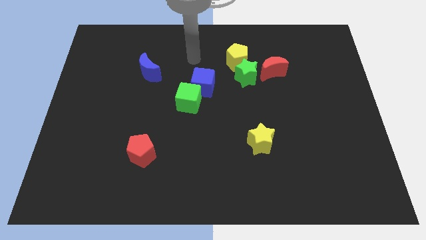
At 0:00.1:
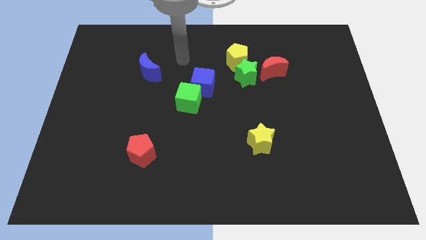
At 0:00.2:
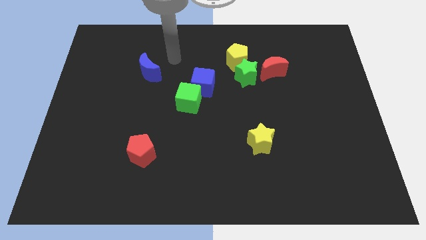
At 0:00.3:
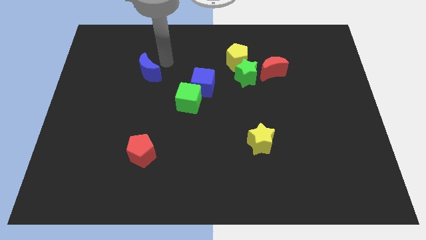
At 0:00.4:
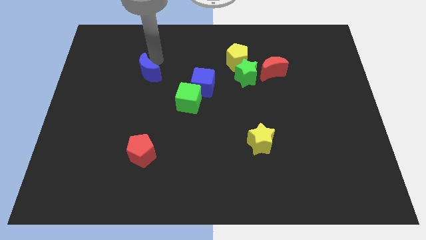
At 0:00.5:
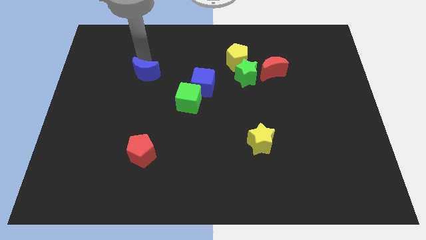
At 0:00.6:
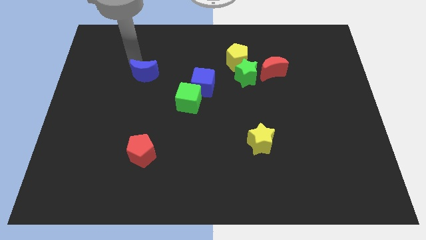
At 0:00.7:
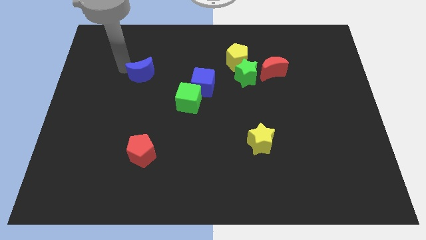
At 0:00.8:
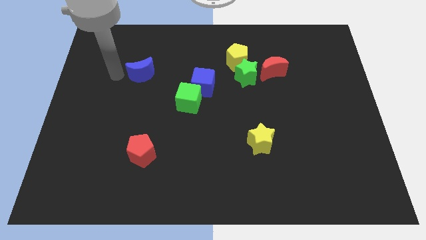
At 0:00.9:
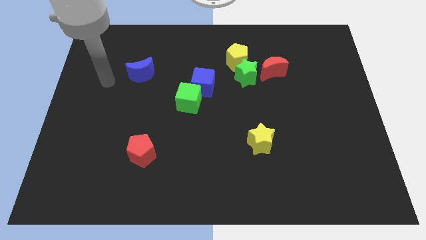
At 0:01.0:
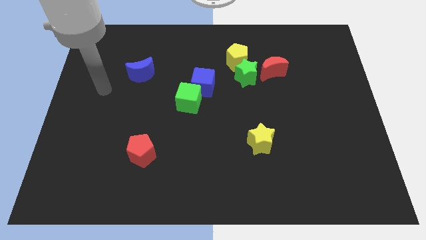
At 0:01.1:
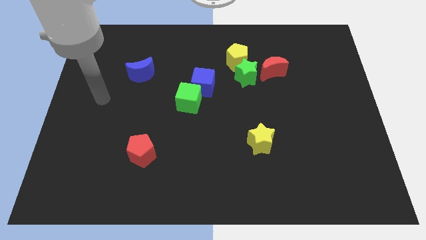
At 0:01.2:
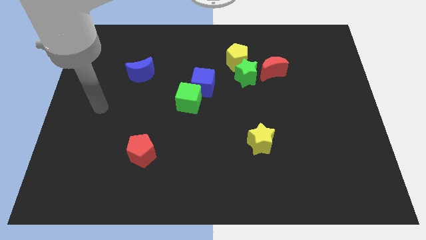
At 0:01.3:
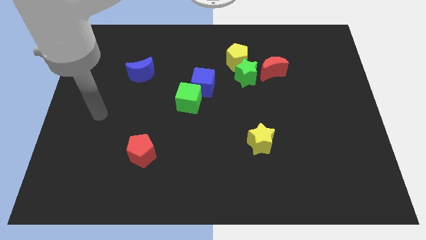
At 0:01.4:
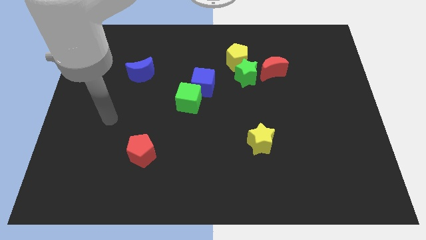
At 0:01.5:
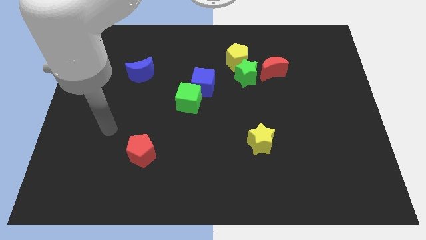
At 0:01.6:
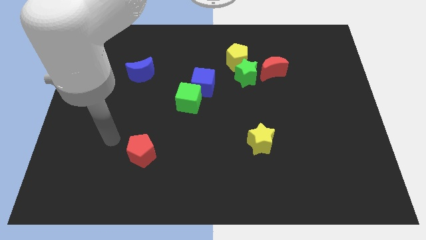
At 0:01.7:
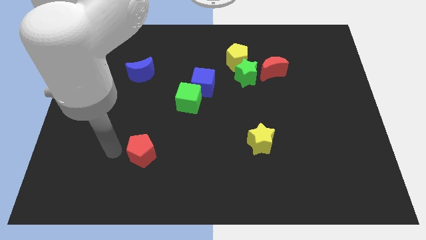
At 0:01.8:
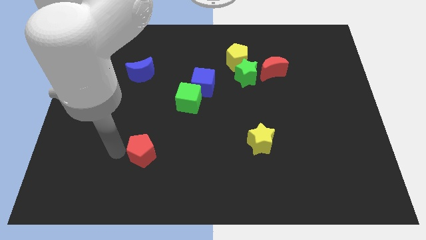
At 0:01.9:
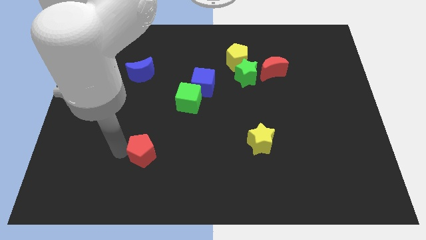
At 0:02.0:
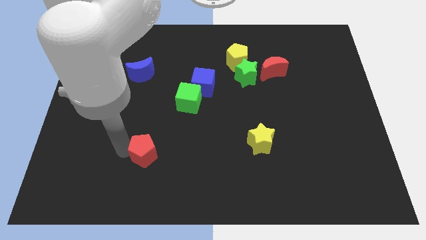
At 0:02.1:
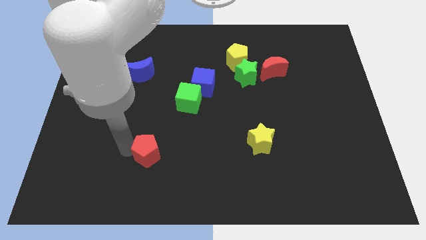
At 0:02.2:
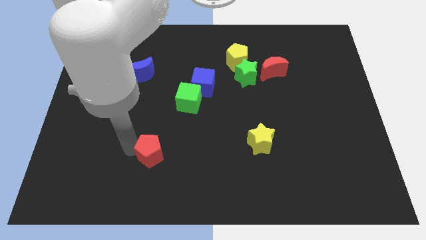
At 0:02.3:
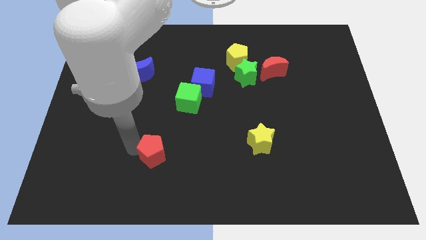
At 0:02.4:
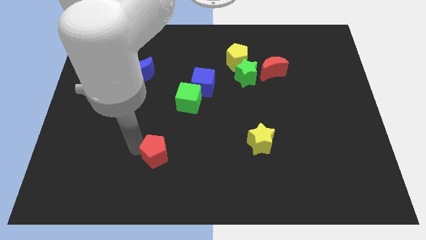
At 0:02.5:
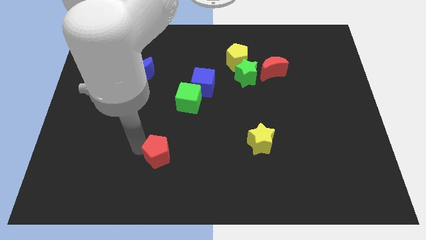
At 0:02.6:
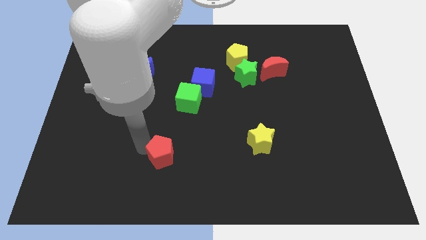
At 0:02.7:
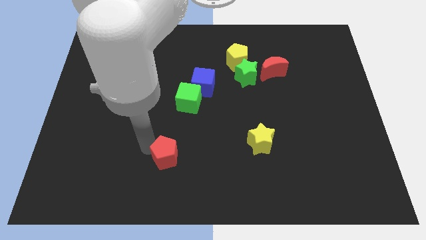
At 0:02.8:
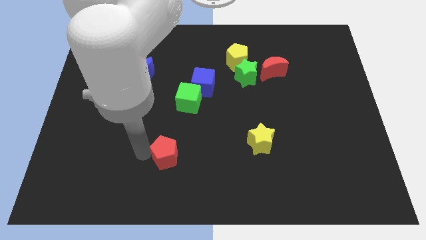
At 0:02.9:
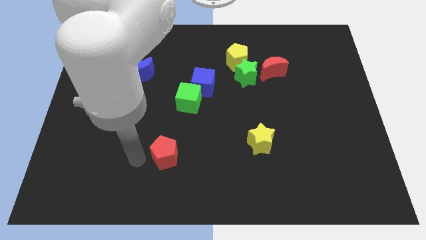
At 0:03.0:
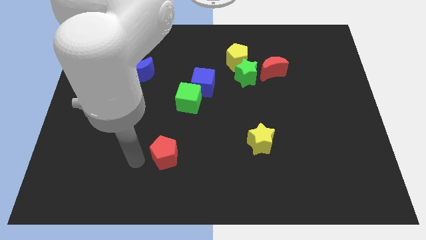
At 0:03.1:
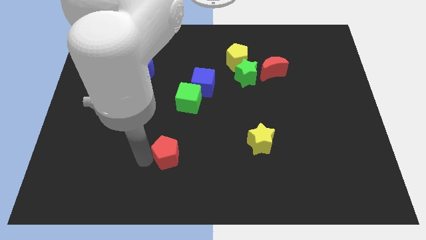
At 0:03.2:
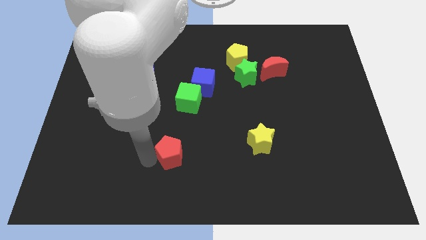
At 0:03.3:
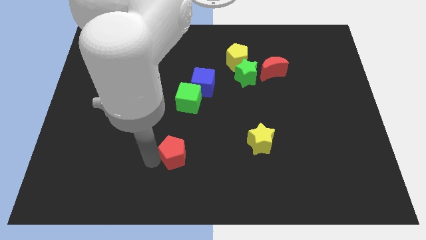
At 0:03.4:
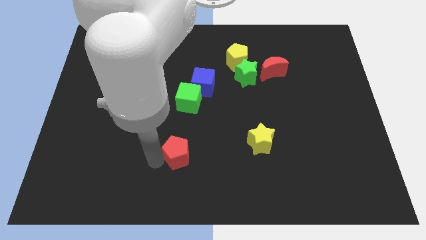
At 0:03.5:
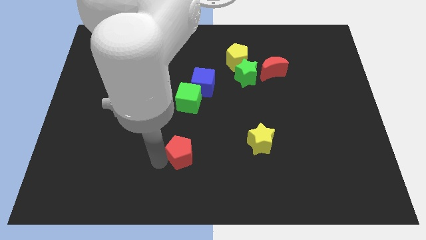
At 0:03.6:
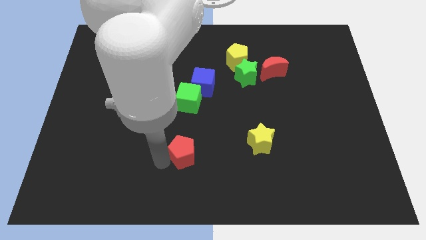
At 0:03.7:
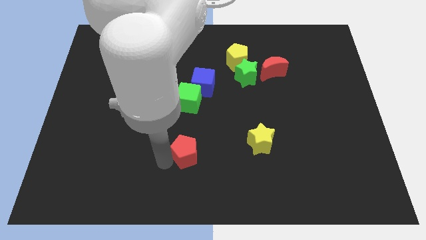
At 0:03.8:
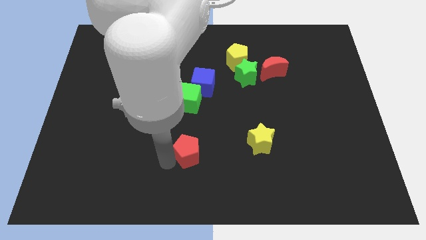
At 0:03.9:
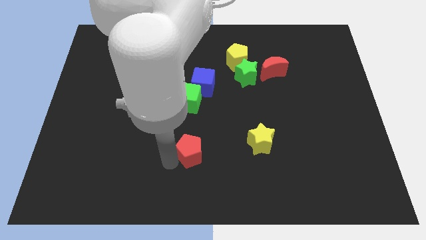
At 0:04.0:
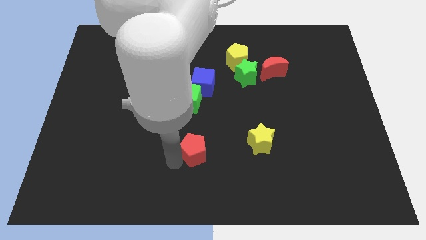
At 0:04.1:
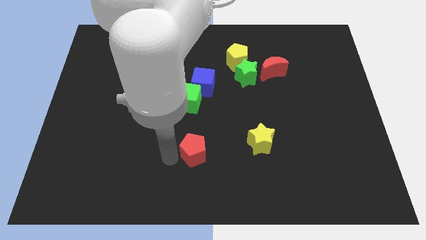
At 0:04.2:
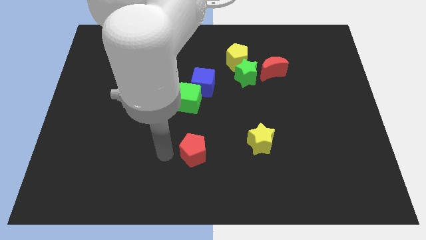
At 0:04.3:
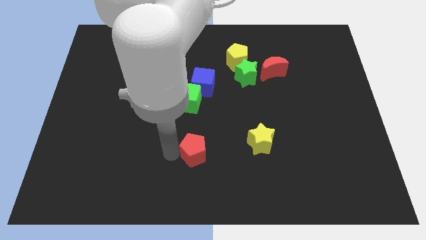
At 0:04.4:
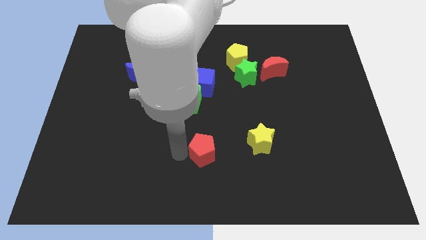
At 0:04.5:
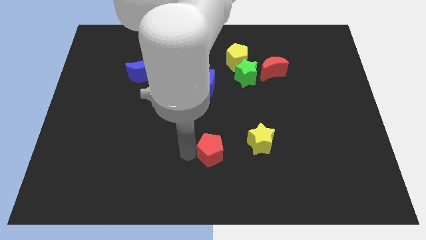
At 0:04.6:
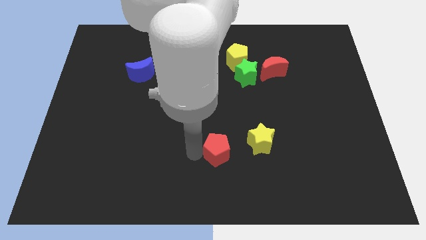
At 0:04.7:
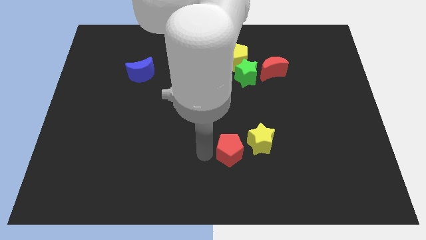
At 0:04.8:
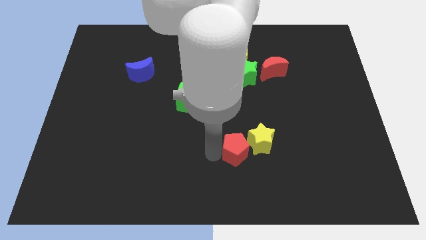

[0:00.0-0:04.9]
put the red pentagon to the yellow star

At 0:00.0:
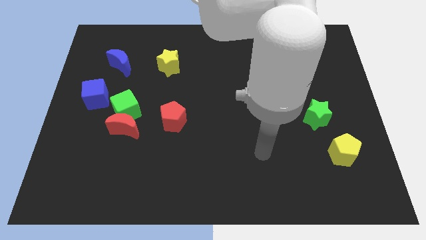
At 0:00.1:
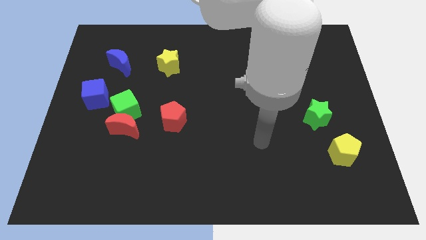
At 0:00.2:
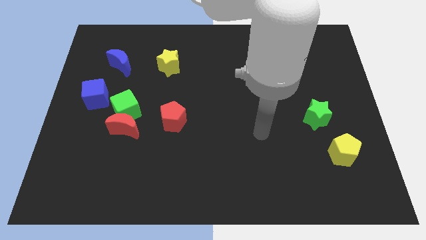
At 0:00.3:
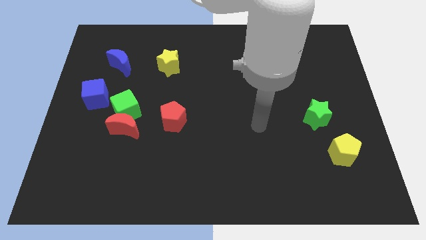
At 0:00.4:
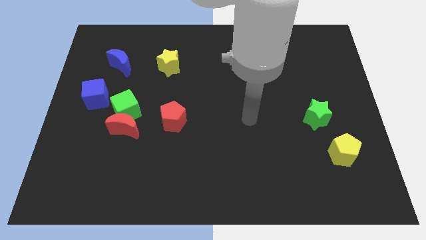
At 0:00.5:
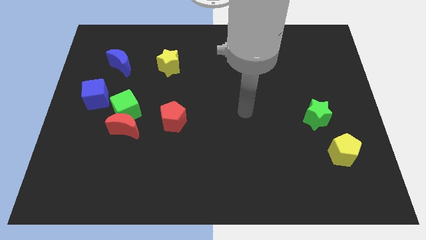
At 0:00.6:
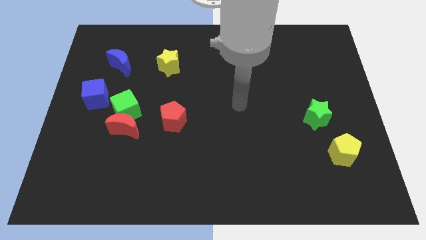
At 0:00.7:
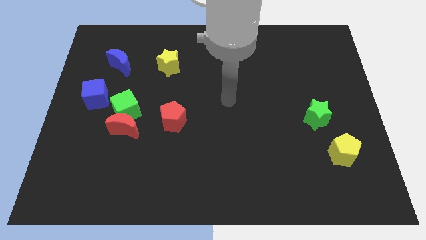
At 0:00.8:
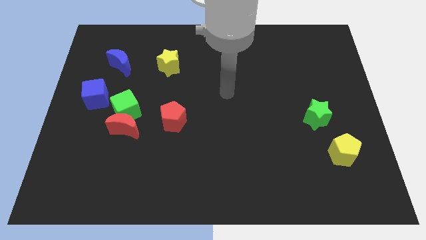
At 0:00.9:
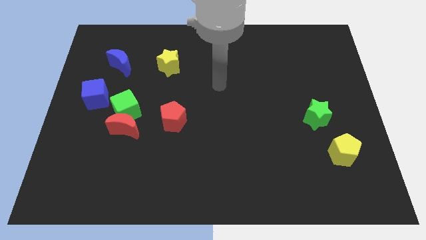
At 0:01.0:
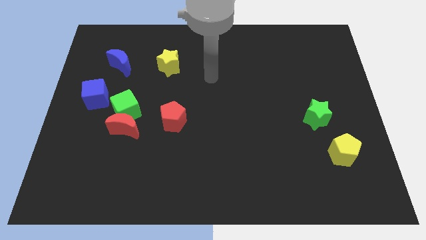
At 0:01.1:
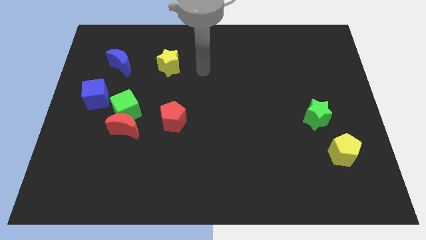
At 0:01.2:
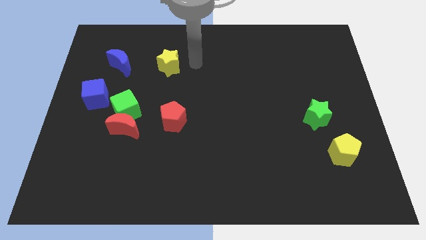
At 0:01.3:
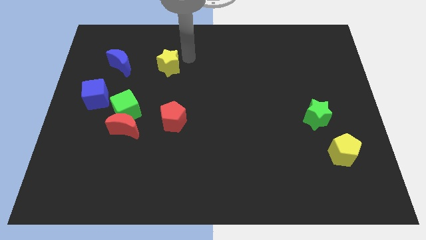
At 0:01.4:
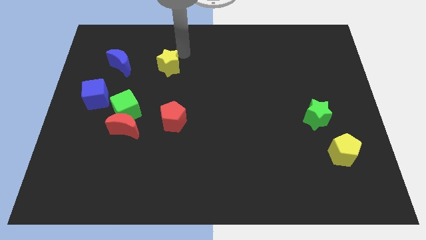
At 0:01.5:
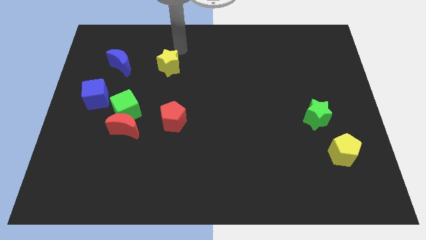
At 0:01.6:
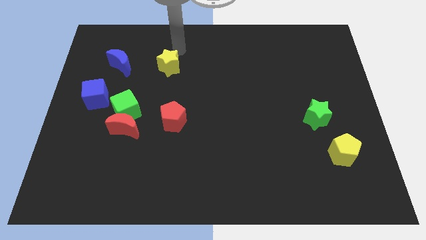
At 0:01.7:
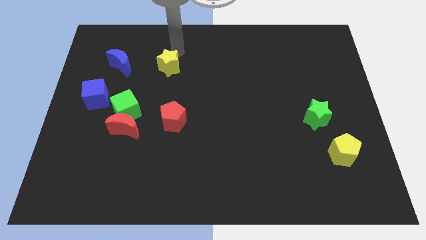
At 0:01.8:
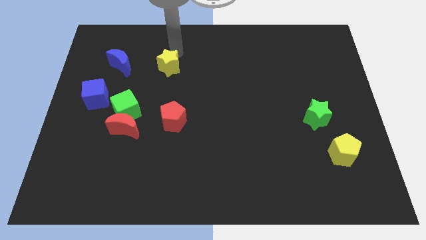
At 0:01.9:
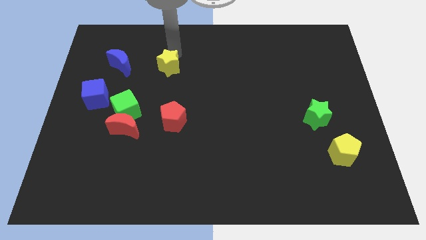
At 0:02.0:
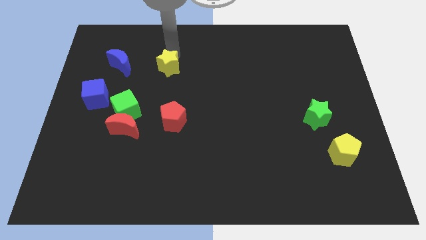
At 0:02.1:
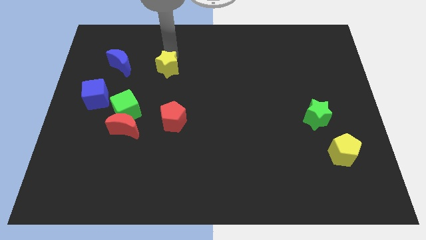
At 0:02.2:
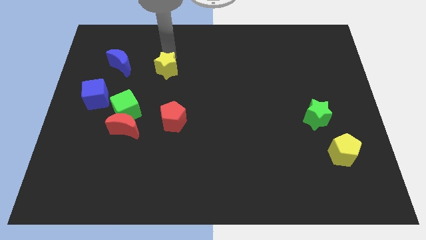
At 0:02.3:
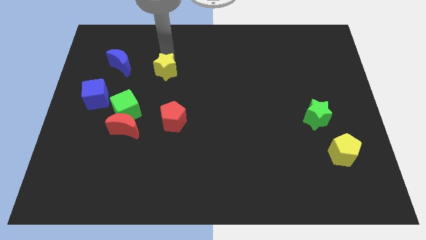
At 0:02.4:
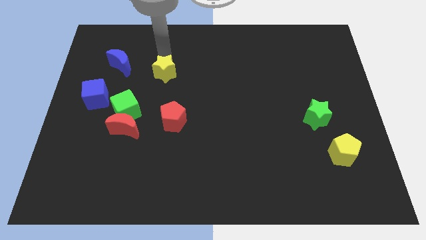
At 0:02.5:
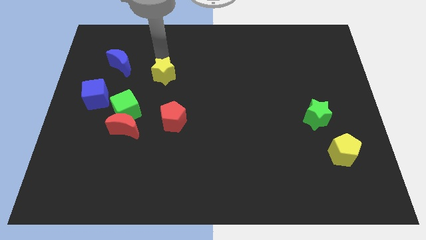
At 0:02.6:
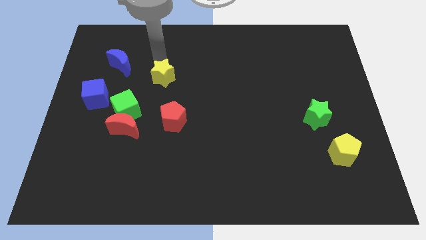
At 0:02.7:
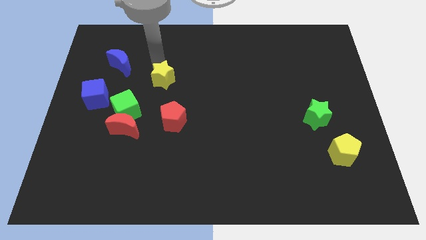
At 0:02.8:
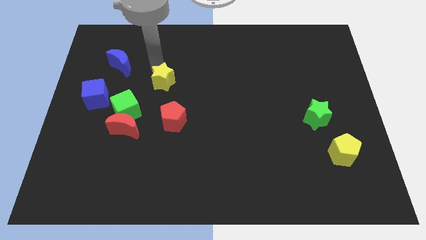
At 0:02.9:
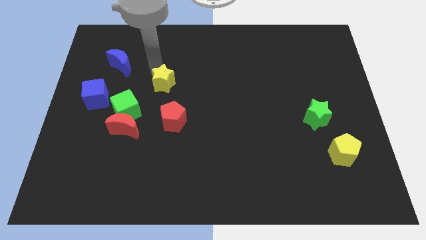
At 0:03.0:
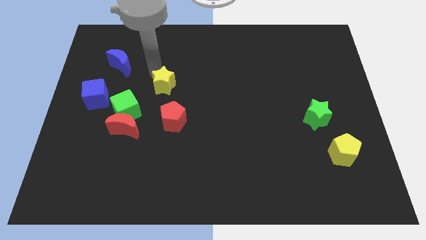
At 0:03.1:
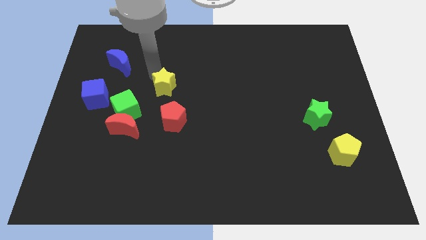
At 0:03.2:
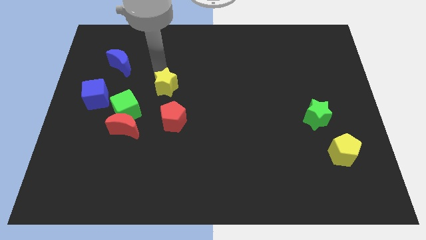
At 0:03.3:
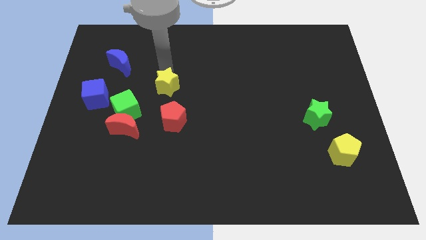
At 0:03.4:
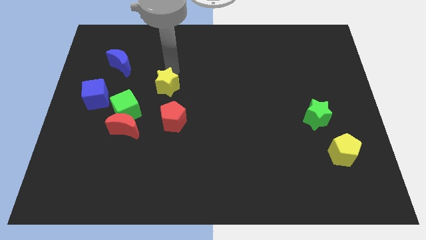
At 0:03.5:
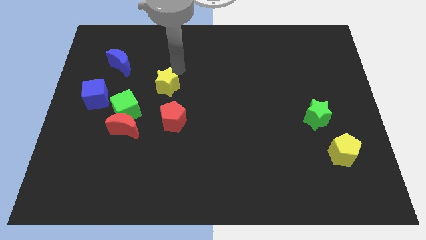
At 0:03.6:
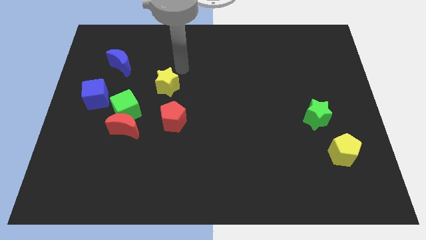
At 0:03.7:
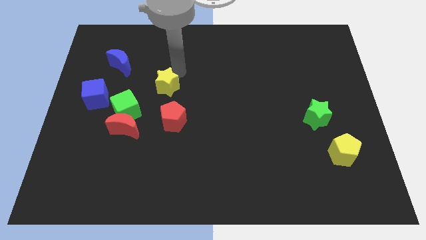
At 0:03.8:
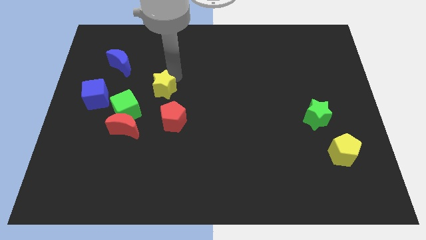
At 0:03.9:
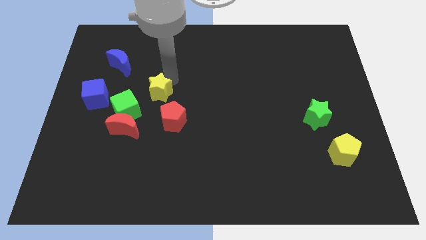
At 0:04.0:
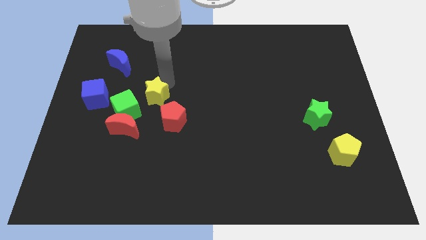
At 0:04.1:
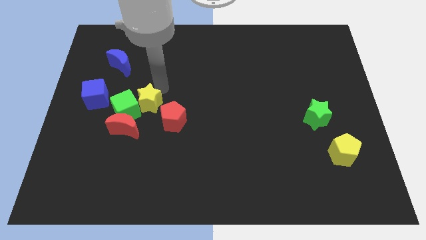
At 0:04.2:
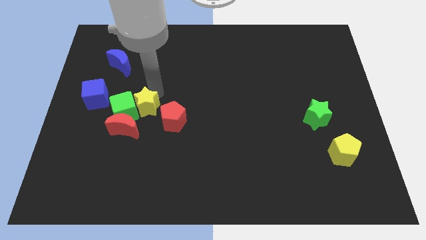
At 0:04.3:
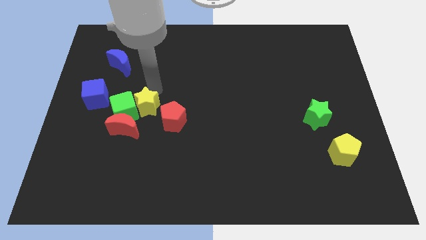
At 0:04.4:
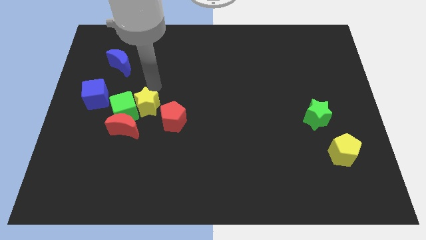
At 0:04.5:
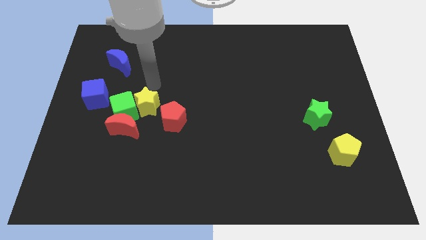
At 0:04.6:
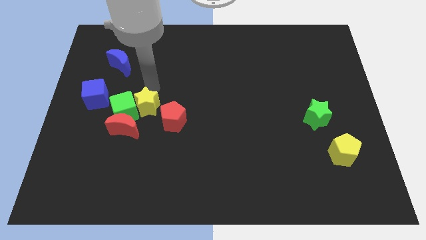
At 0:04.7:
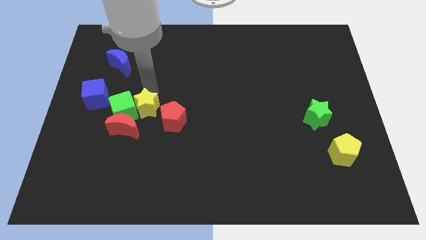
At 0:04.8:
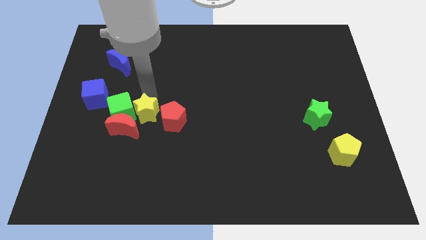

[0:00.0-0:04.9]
push the yellow star close to the red moon
